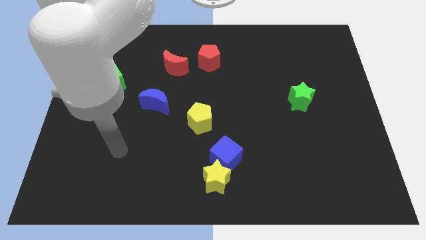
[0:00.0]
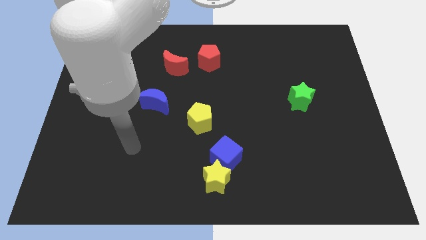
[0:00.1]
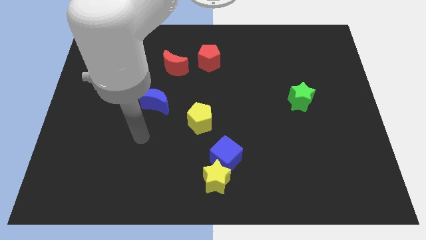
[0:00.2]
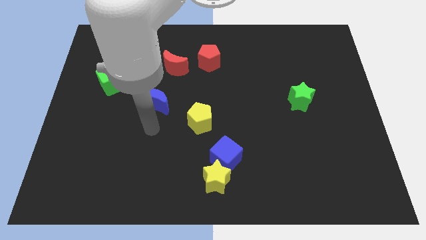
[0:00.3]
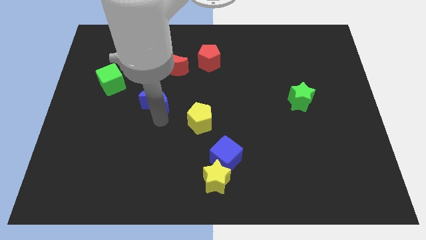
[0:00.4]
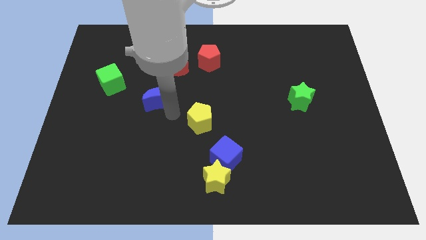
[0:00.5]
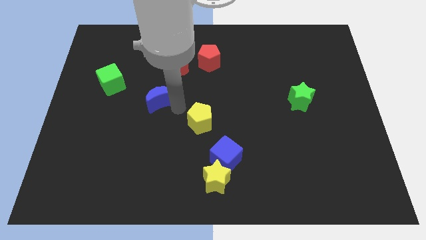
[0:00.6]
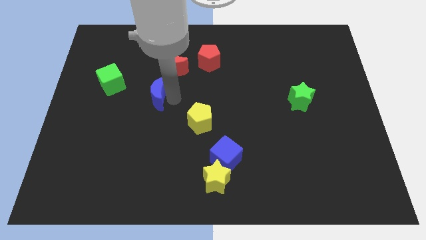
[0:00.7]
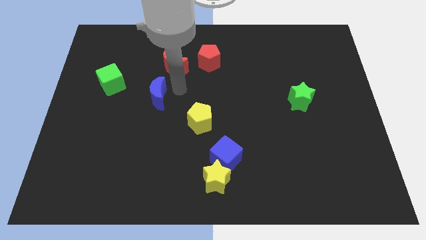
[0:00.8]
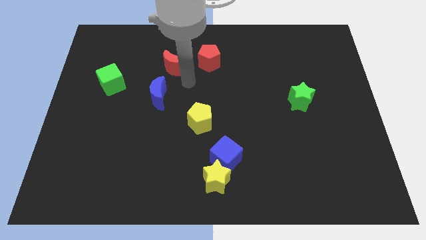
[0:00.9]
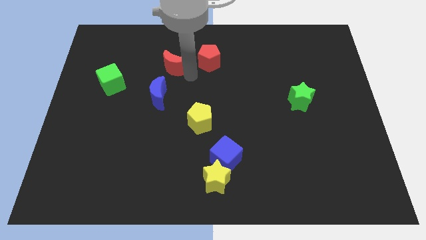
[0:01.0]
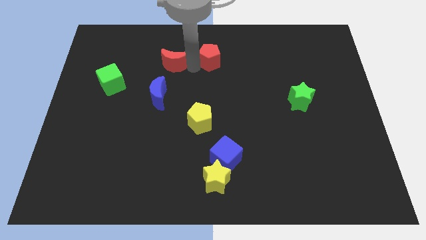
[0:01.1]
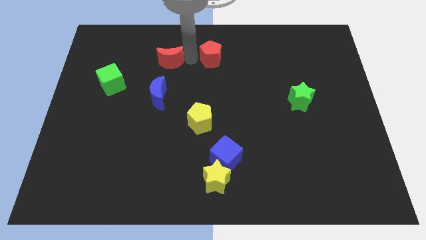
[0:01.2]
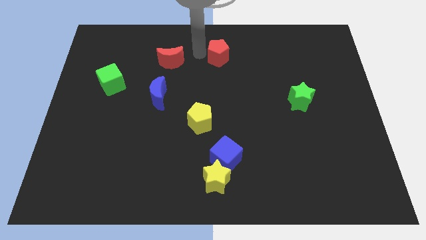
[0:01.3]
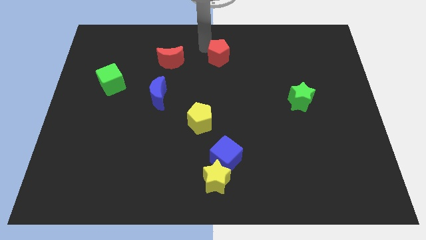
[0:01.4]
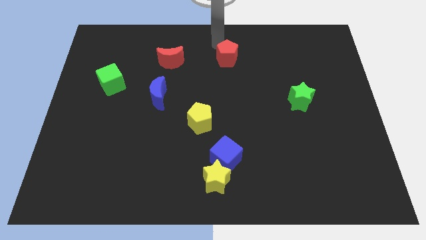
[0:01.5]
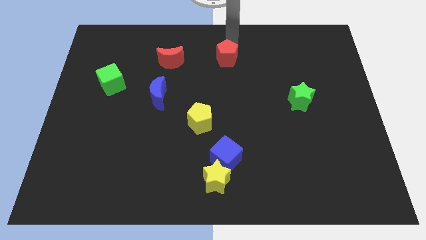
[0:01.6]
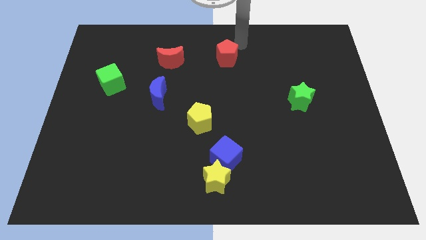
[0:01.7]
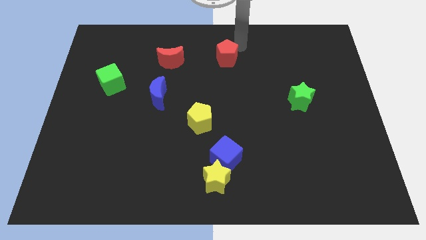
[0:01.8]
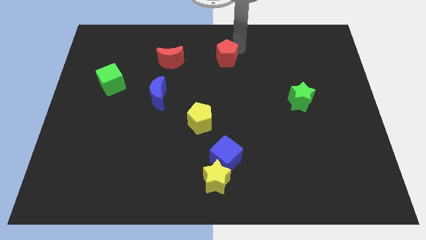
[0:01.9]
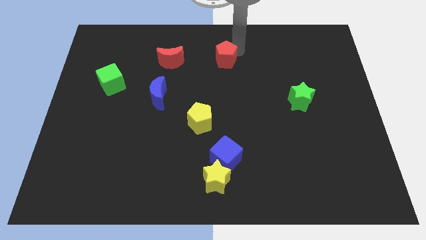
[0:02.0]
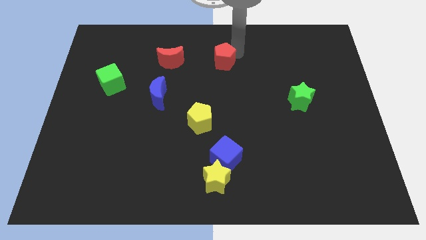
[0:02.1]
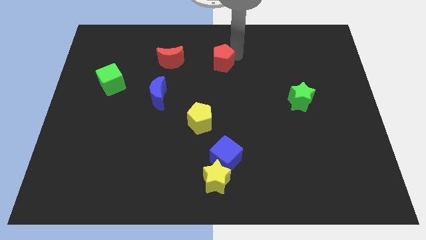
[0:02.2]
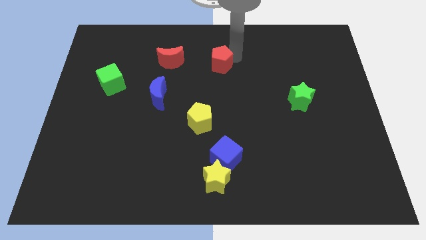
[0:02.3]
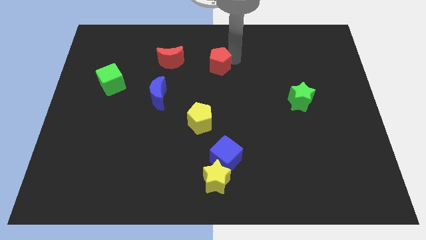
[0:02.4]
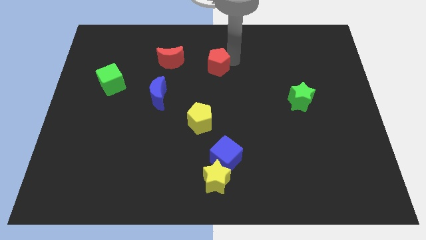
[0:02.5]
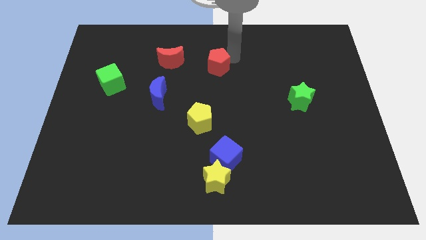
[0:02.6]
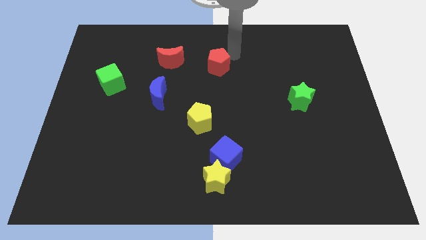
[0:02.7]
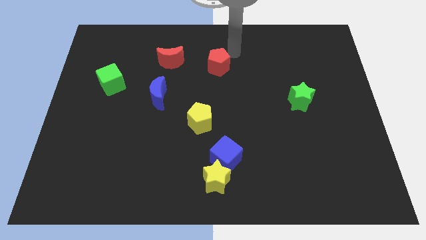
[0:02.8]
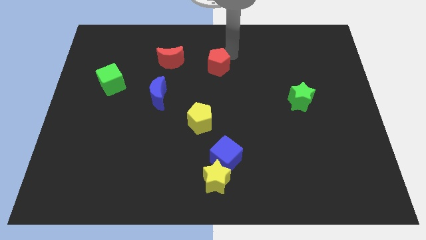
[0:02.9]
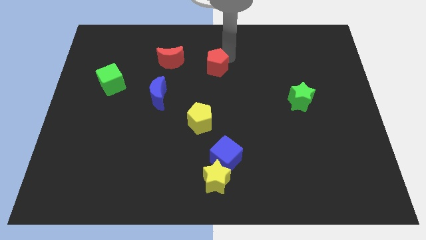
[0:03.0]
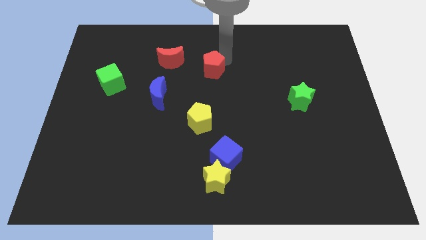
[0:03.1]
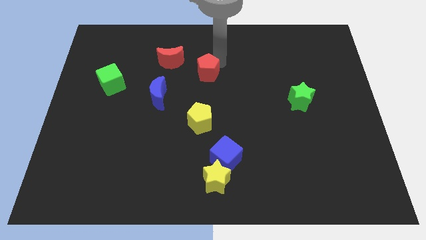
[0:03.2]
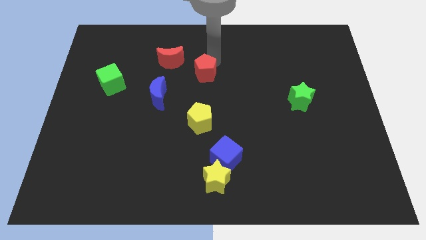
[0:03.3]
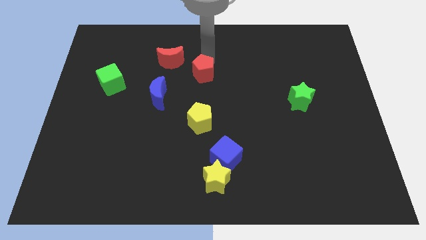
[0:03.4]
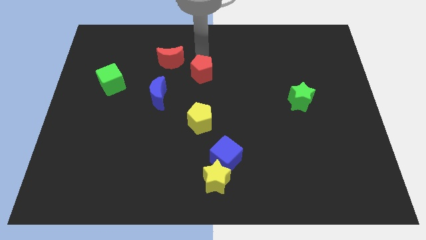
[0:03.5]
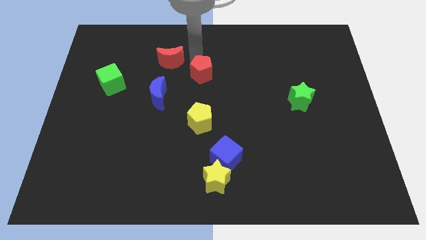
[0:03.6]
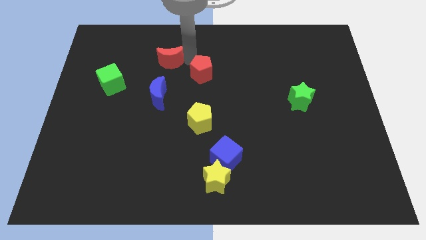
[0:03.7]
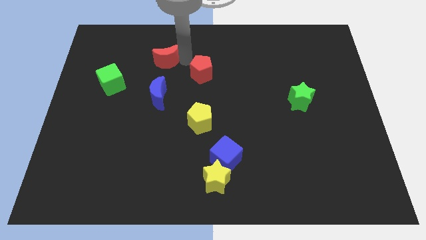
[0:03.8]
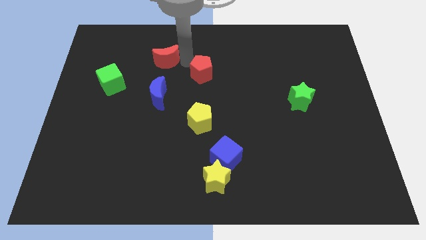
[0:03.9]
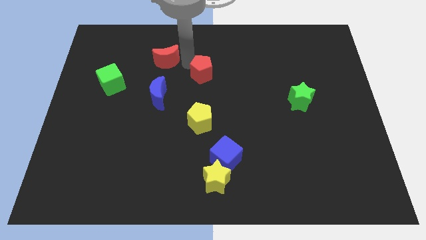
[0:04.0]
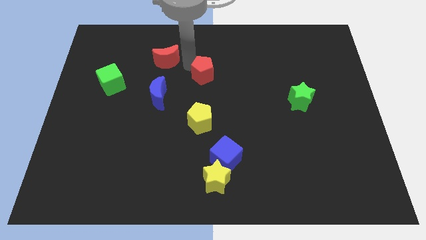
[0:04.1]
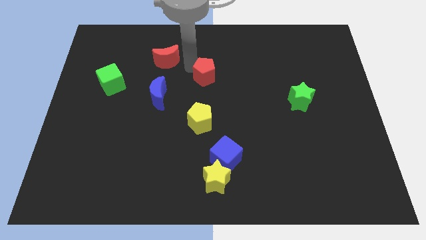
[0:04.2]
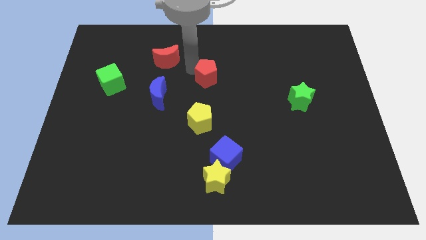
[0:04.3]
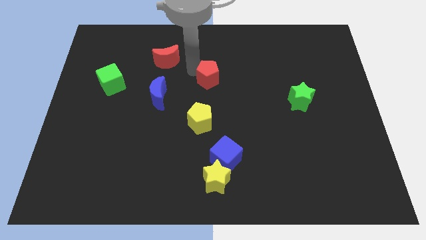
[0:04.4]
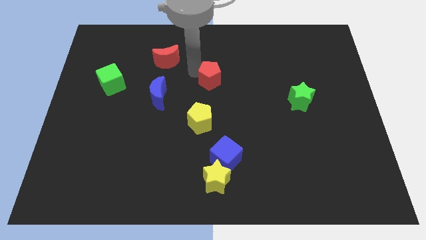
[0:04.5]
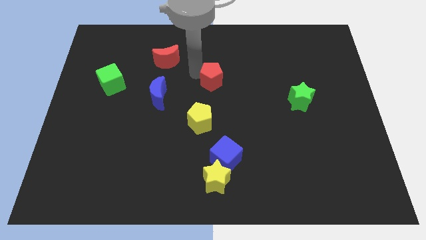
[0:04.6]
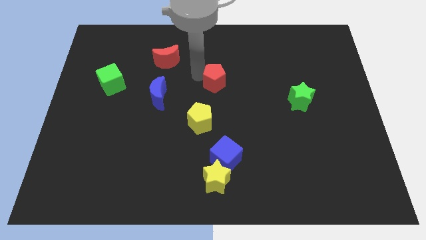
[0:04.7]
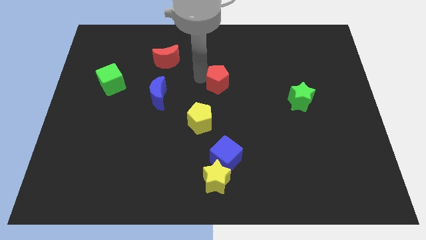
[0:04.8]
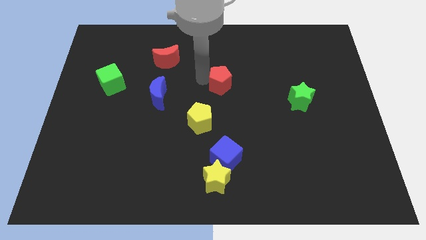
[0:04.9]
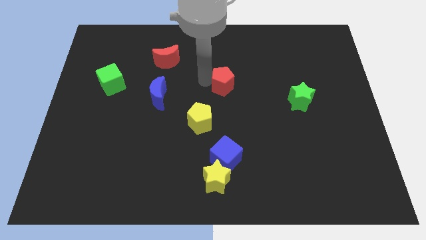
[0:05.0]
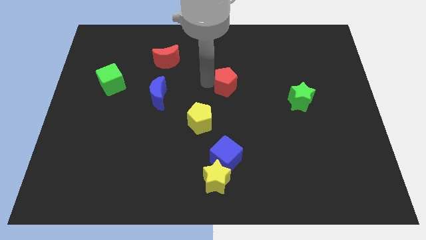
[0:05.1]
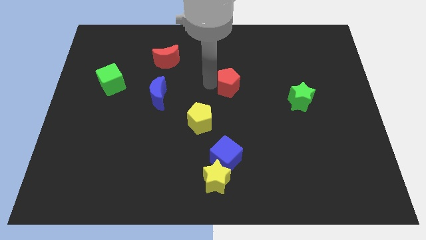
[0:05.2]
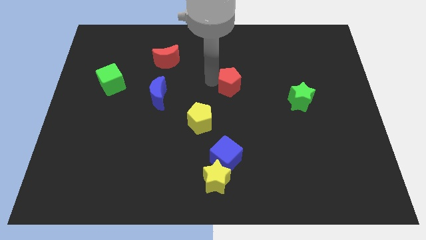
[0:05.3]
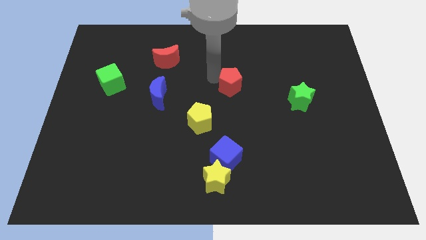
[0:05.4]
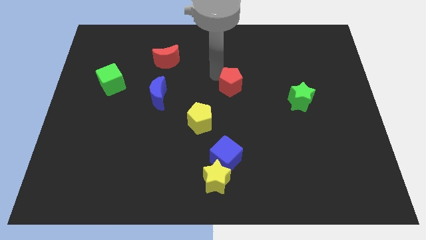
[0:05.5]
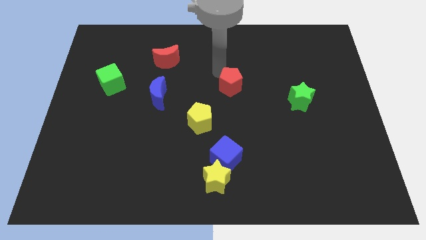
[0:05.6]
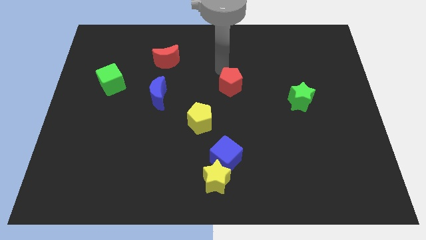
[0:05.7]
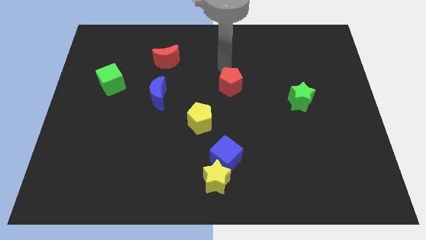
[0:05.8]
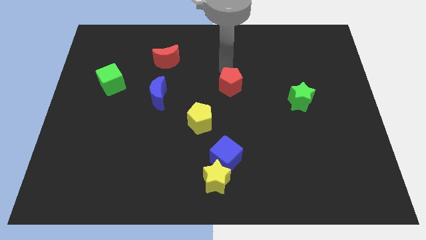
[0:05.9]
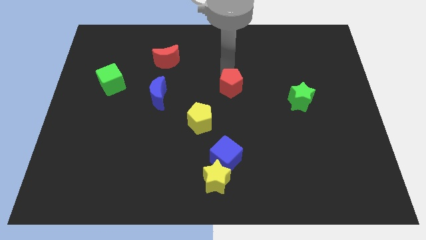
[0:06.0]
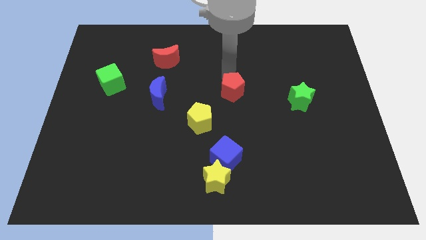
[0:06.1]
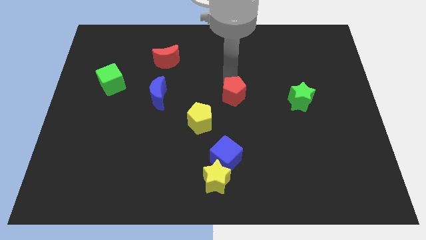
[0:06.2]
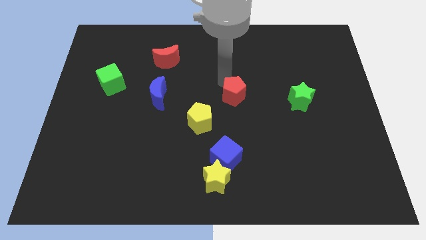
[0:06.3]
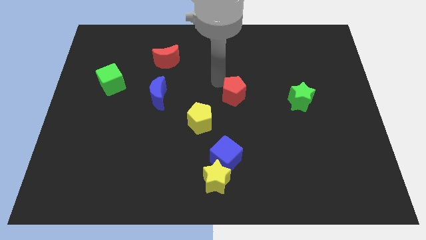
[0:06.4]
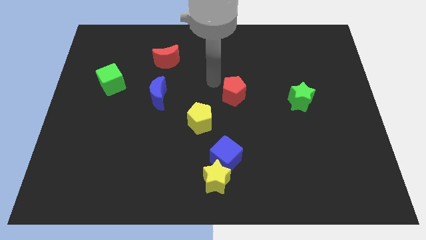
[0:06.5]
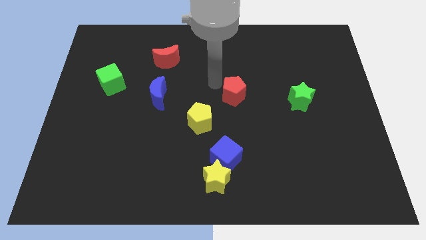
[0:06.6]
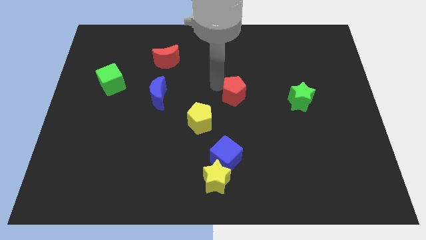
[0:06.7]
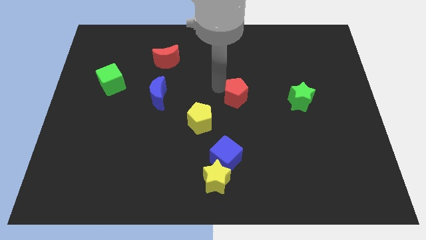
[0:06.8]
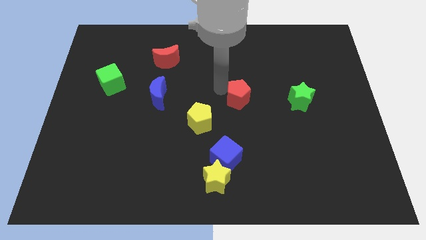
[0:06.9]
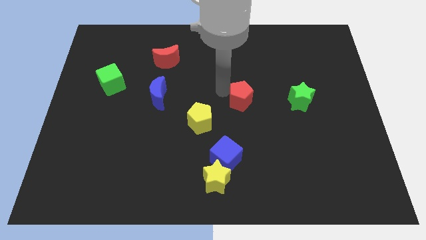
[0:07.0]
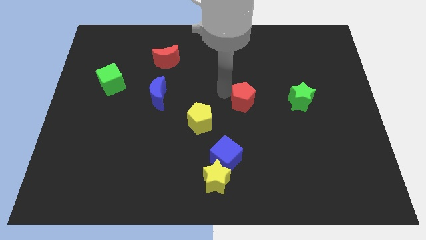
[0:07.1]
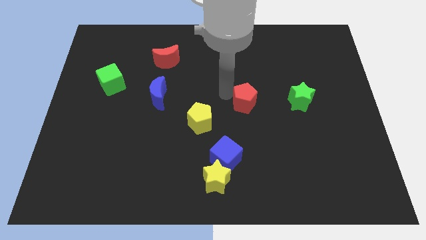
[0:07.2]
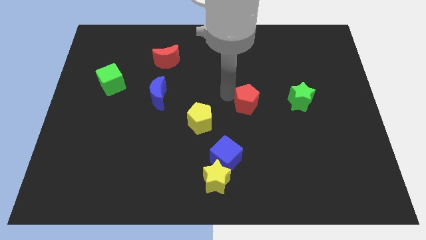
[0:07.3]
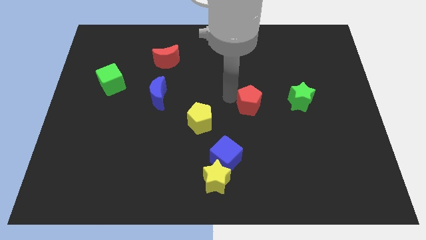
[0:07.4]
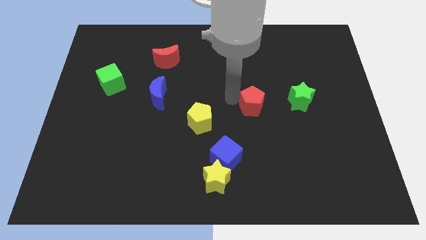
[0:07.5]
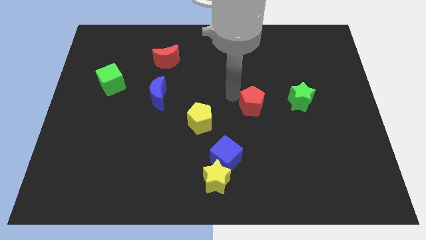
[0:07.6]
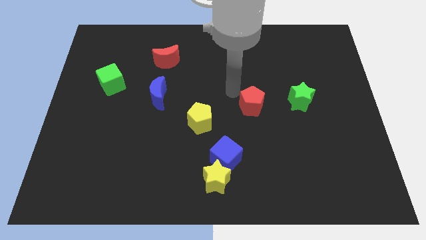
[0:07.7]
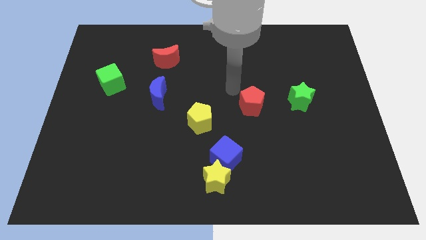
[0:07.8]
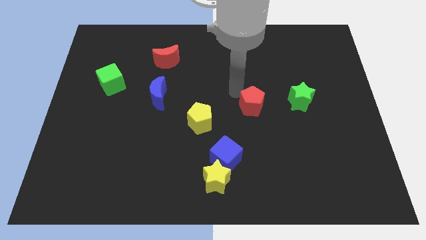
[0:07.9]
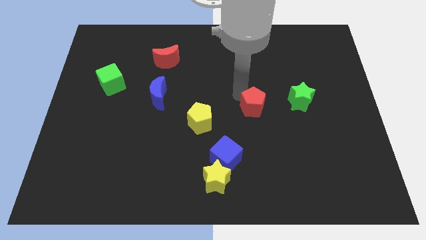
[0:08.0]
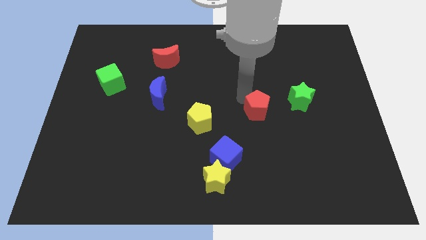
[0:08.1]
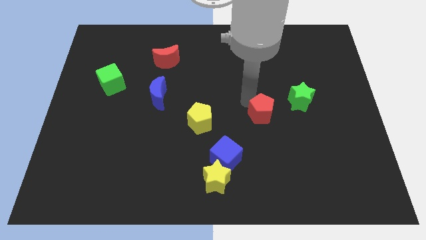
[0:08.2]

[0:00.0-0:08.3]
slide the red pentagon down and right diagonally
